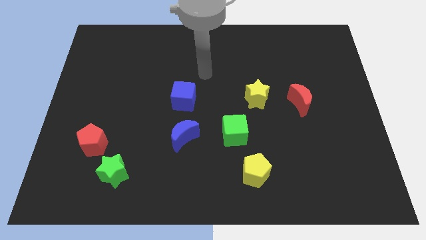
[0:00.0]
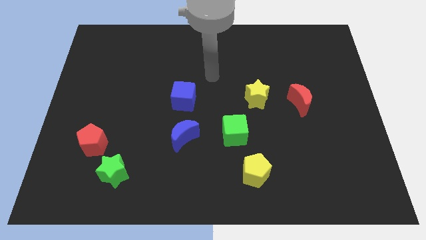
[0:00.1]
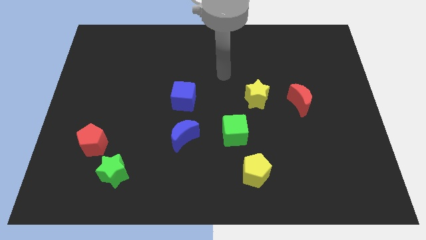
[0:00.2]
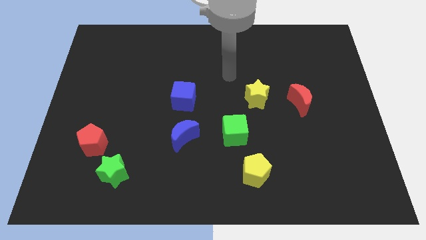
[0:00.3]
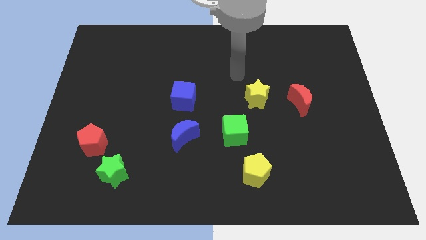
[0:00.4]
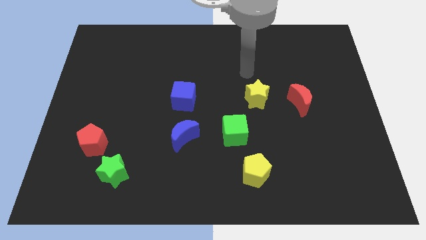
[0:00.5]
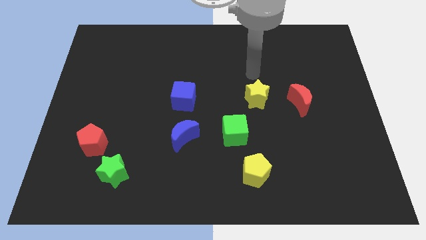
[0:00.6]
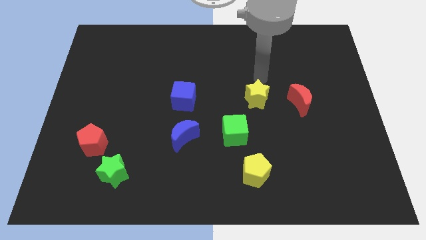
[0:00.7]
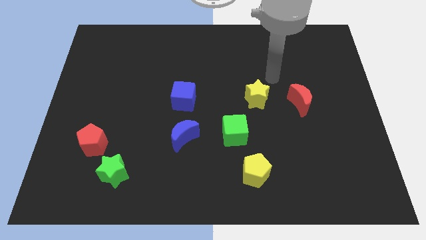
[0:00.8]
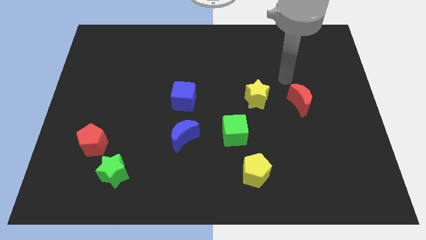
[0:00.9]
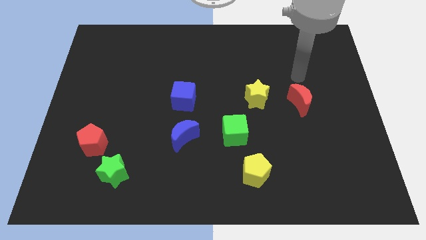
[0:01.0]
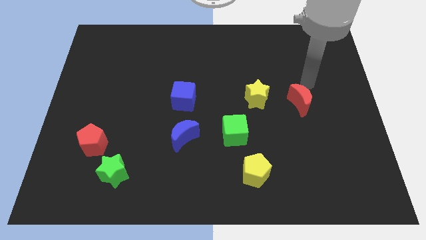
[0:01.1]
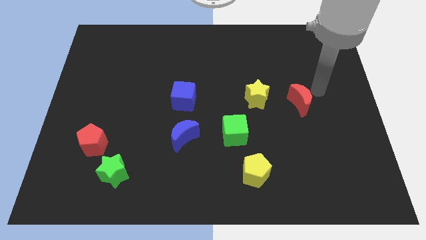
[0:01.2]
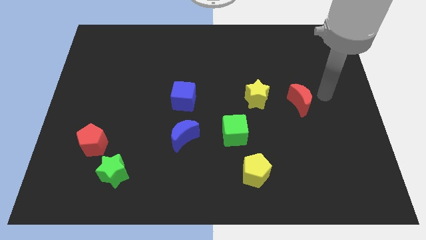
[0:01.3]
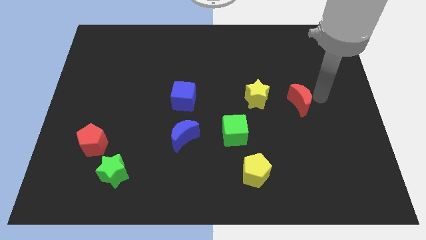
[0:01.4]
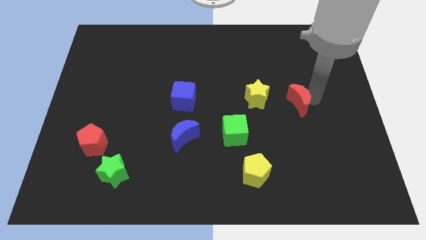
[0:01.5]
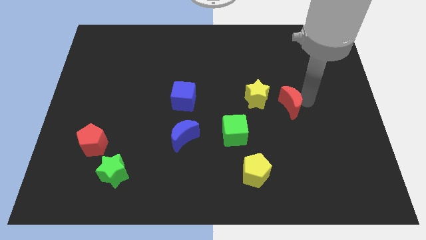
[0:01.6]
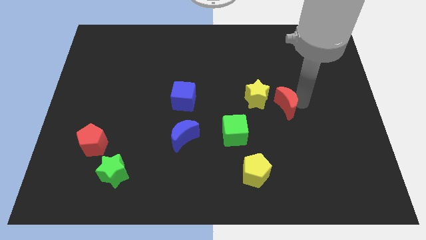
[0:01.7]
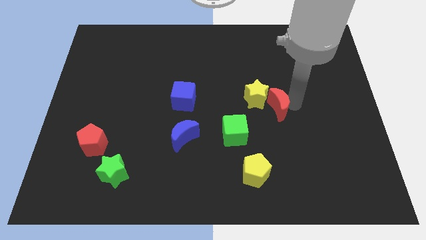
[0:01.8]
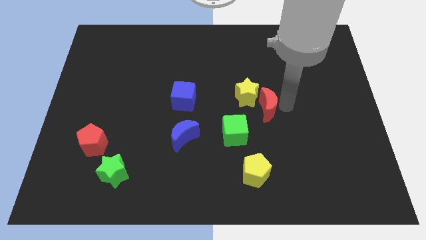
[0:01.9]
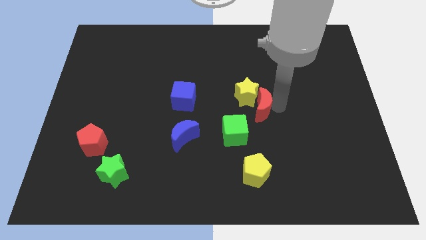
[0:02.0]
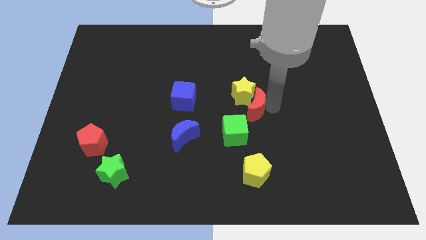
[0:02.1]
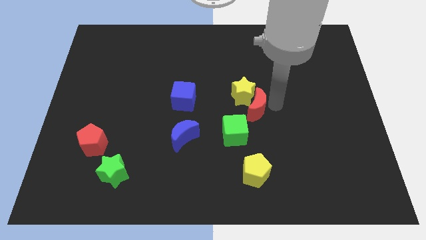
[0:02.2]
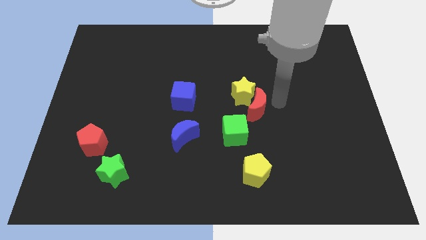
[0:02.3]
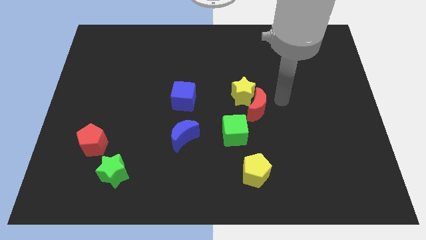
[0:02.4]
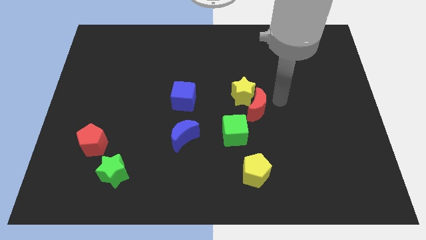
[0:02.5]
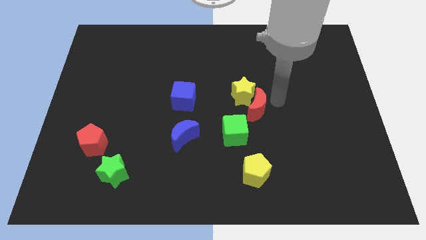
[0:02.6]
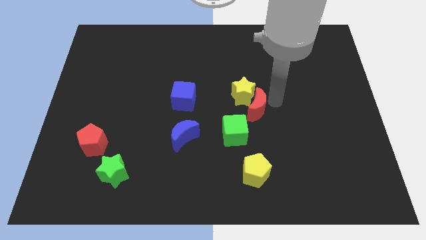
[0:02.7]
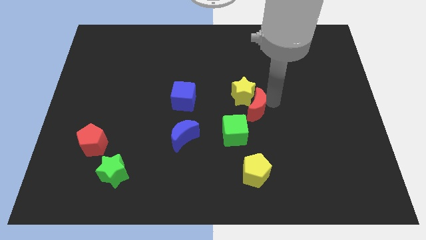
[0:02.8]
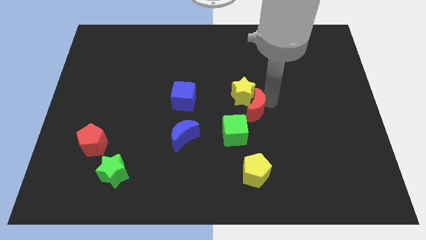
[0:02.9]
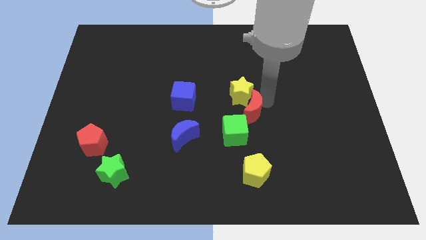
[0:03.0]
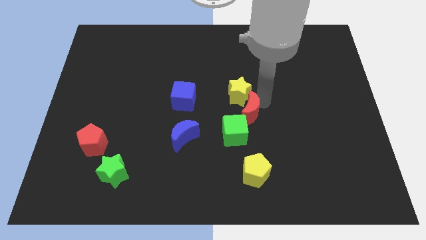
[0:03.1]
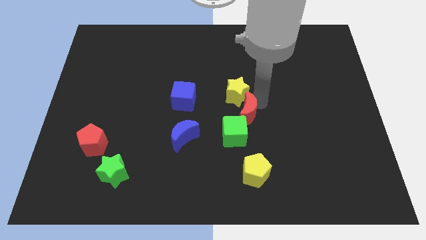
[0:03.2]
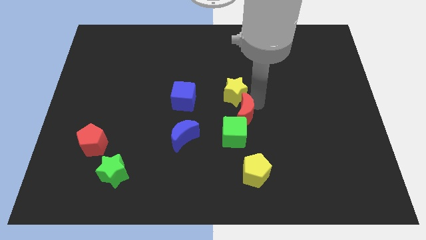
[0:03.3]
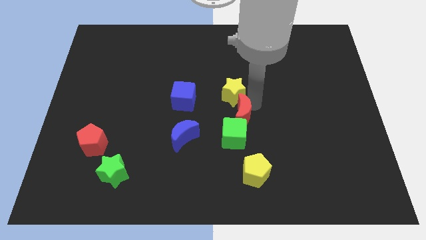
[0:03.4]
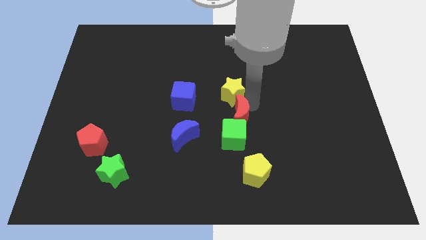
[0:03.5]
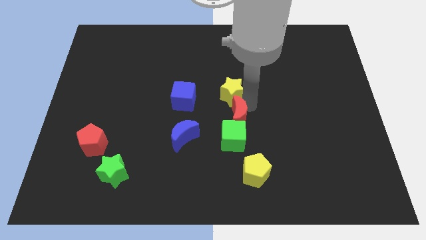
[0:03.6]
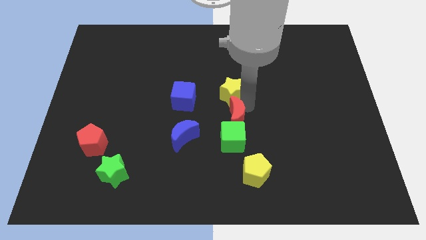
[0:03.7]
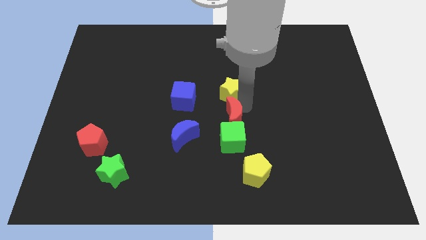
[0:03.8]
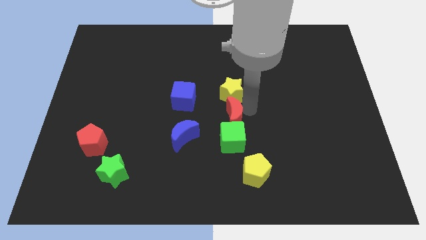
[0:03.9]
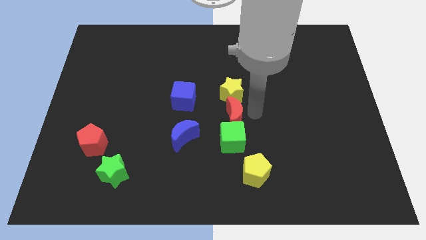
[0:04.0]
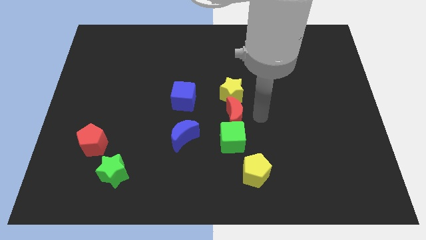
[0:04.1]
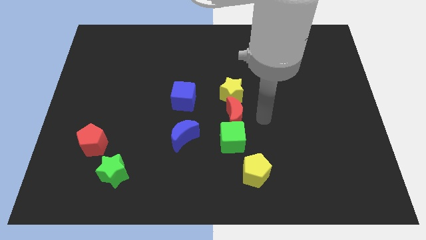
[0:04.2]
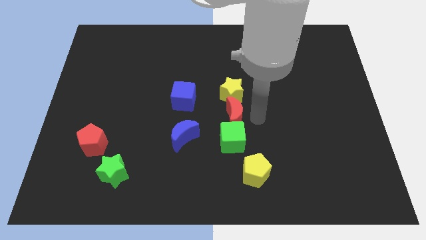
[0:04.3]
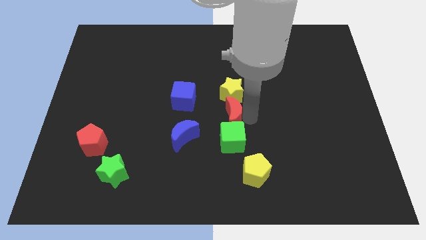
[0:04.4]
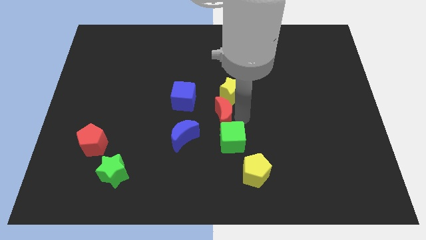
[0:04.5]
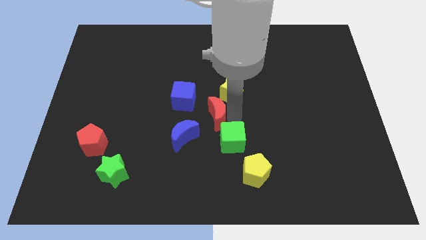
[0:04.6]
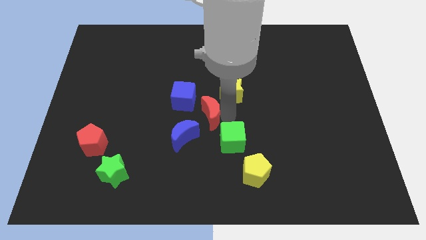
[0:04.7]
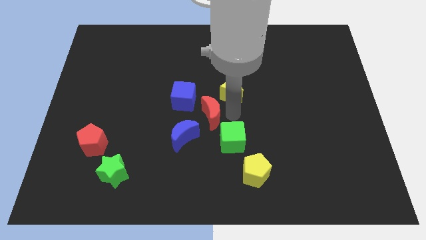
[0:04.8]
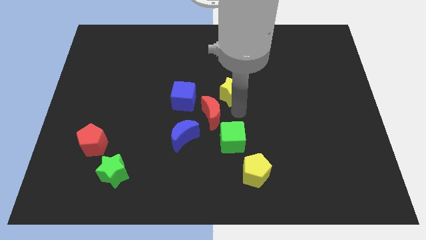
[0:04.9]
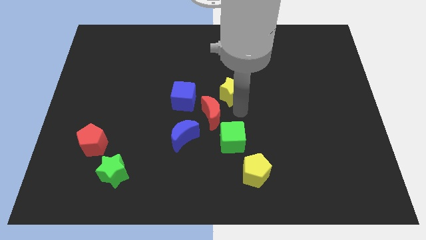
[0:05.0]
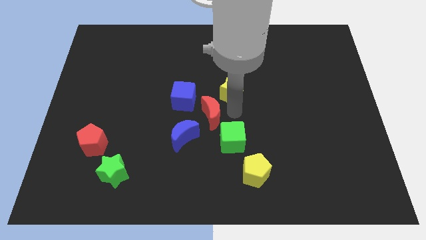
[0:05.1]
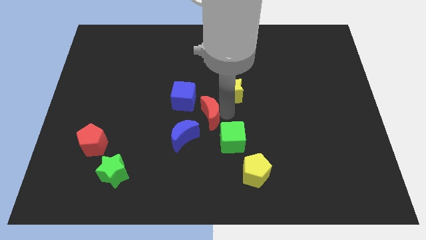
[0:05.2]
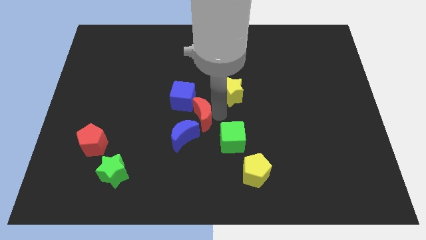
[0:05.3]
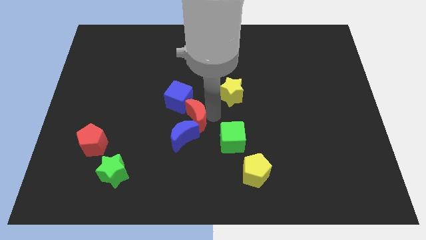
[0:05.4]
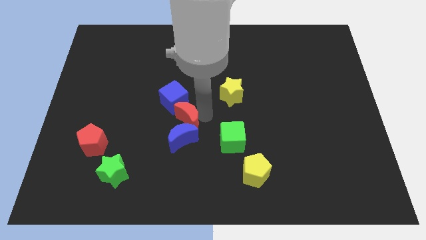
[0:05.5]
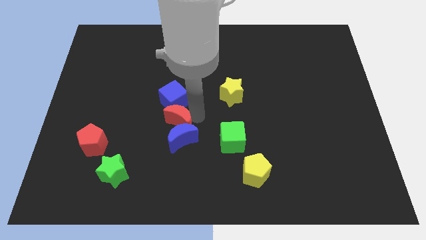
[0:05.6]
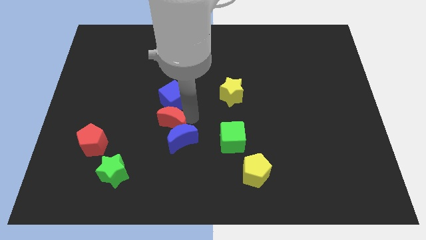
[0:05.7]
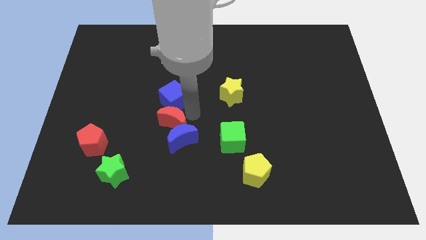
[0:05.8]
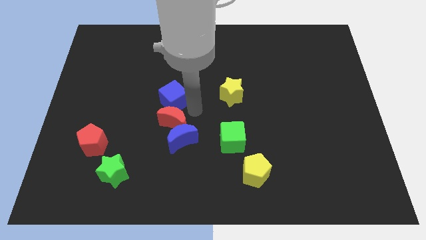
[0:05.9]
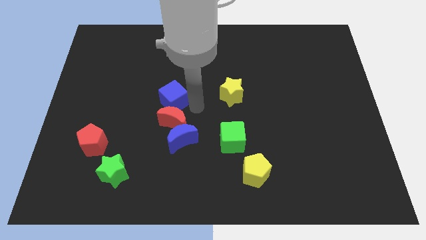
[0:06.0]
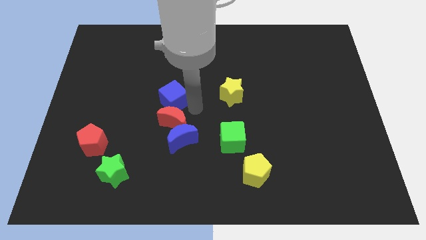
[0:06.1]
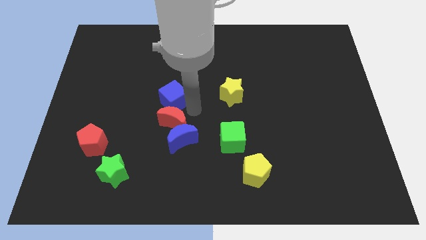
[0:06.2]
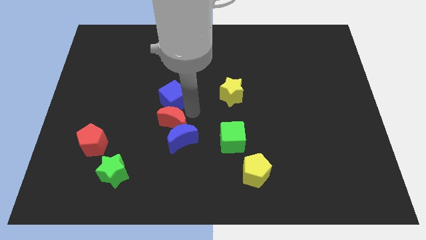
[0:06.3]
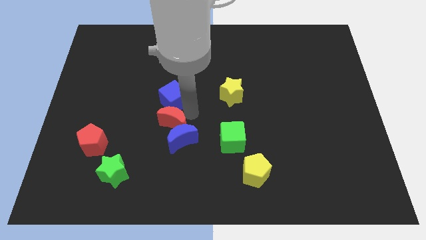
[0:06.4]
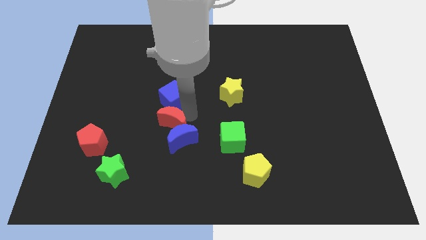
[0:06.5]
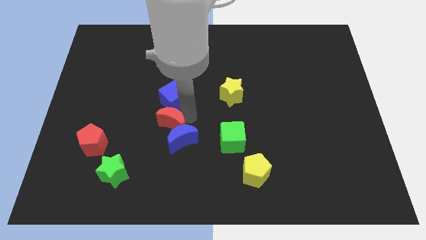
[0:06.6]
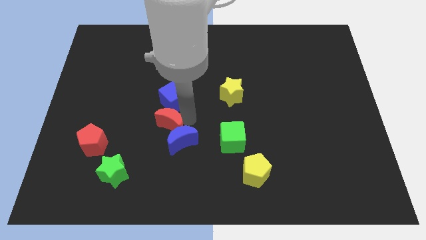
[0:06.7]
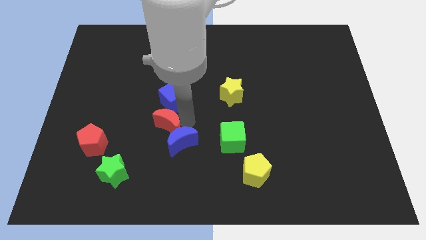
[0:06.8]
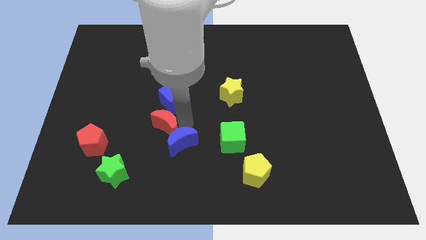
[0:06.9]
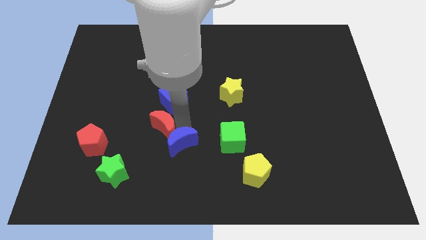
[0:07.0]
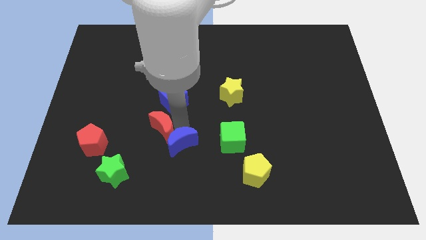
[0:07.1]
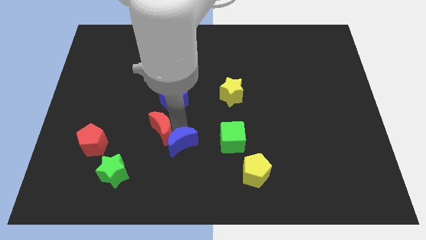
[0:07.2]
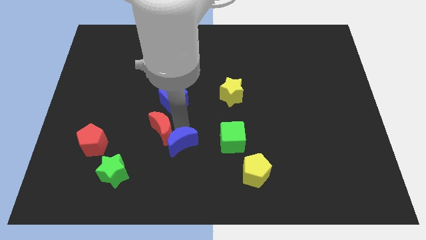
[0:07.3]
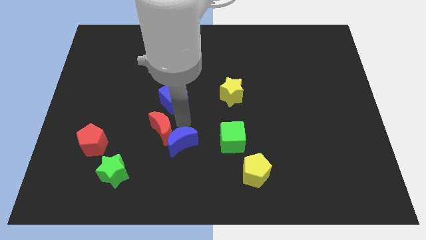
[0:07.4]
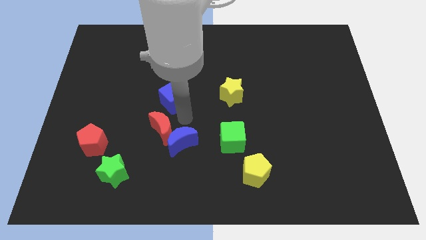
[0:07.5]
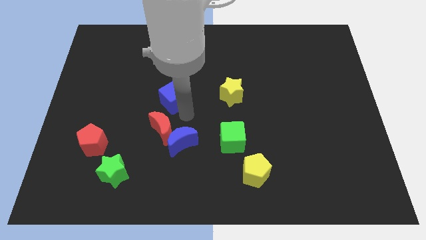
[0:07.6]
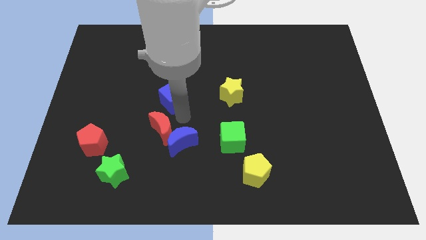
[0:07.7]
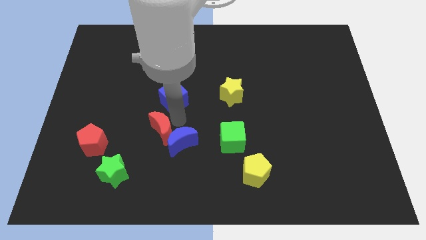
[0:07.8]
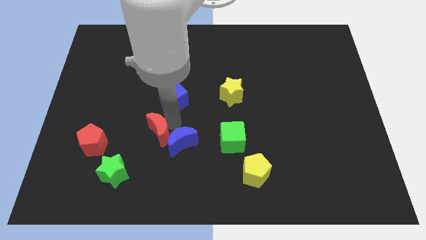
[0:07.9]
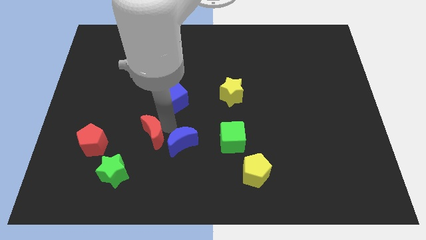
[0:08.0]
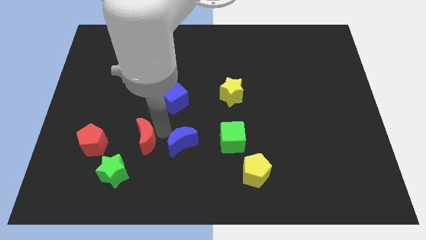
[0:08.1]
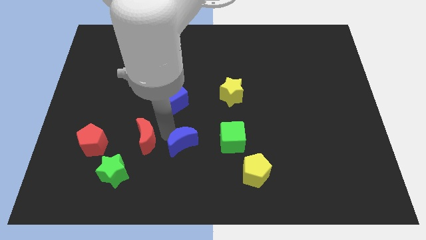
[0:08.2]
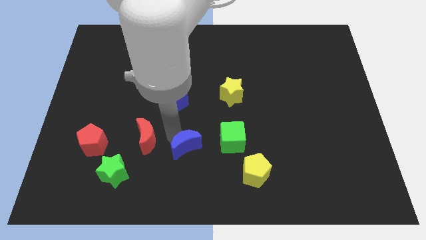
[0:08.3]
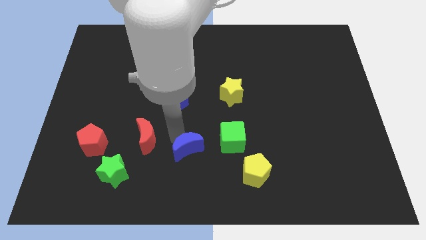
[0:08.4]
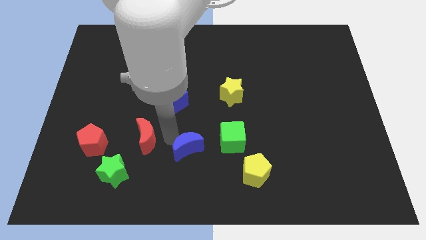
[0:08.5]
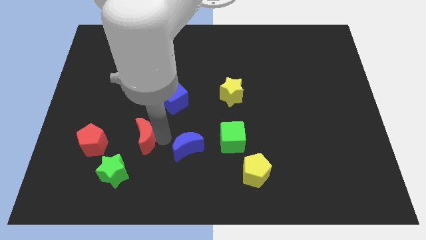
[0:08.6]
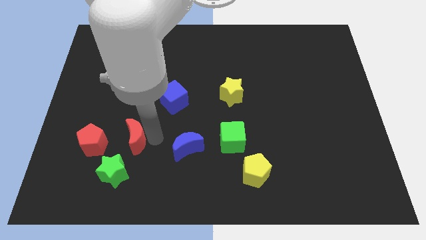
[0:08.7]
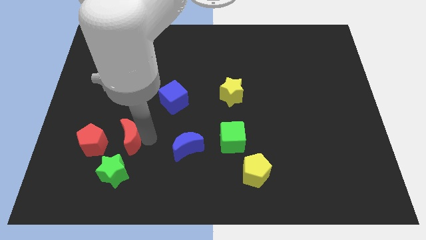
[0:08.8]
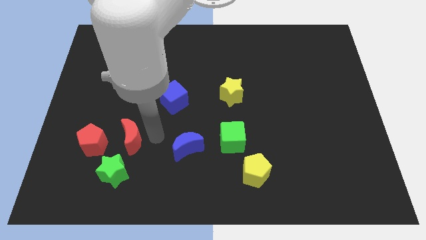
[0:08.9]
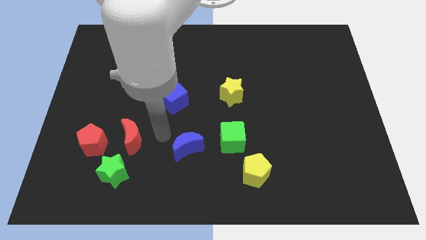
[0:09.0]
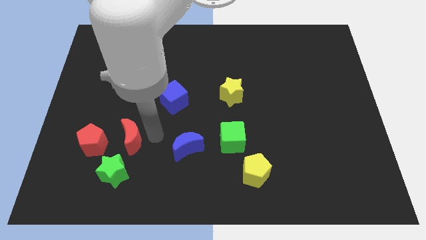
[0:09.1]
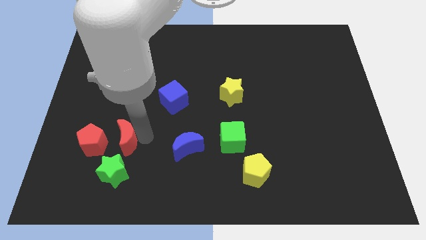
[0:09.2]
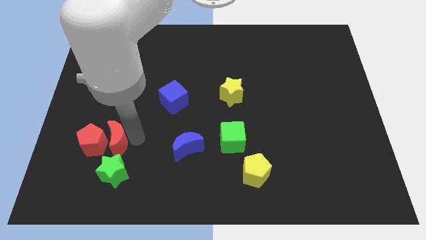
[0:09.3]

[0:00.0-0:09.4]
move the red moon close to the red pentagon
